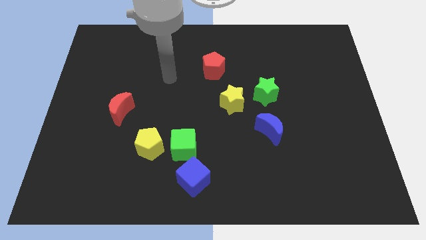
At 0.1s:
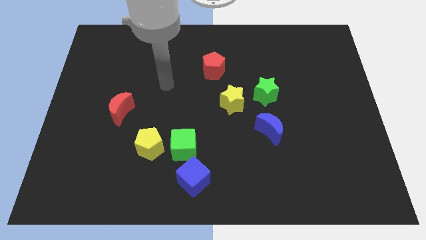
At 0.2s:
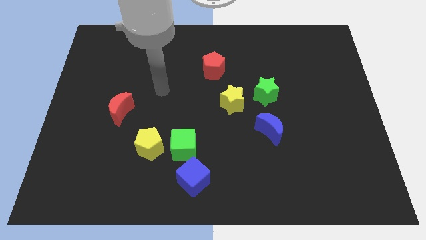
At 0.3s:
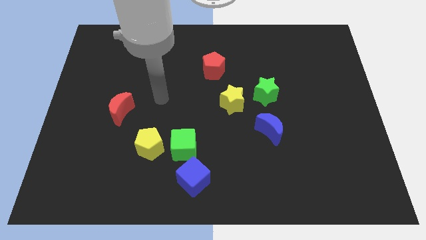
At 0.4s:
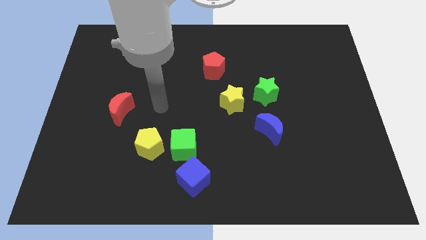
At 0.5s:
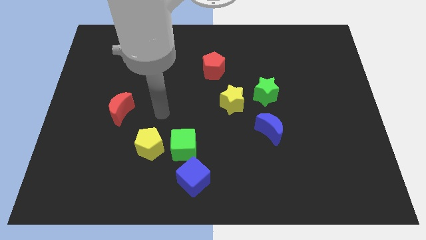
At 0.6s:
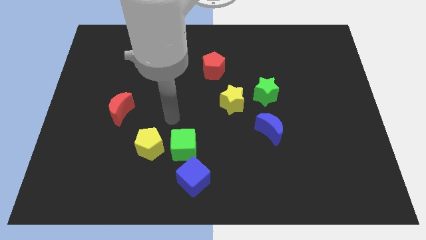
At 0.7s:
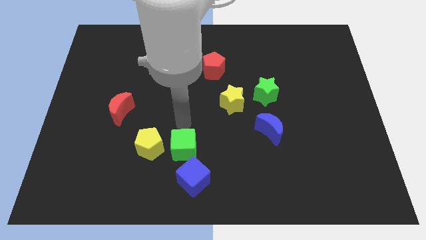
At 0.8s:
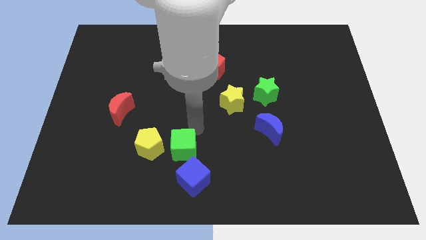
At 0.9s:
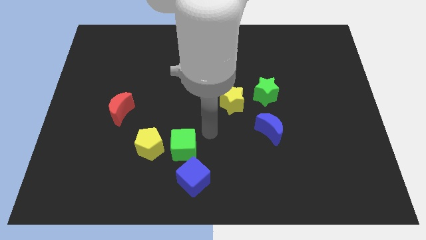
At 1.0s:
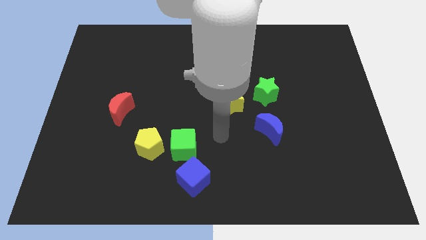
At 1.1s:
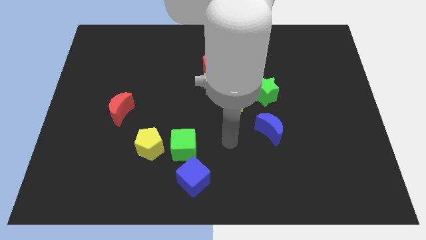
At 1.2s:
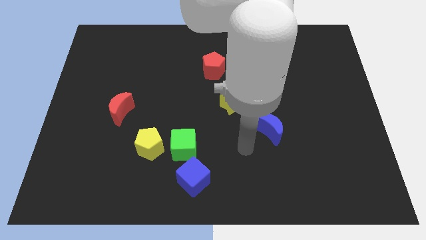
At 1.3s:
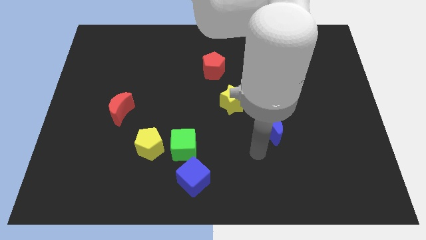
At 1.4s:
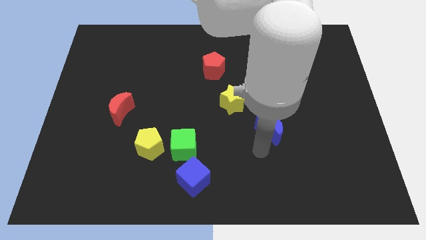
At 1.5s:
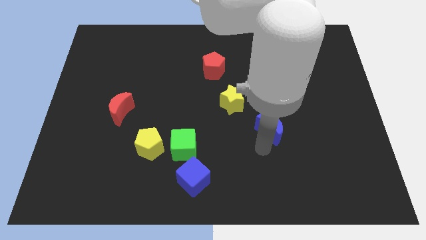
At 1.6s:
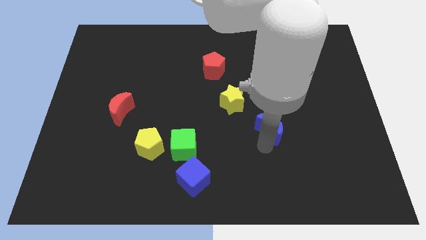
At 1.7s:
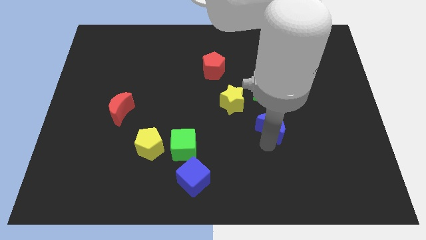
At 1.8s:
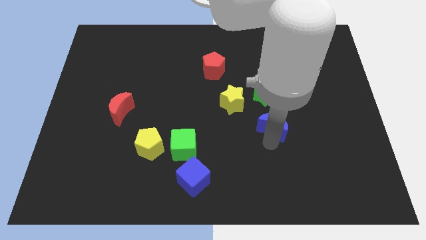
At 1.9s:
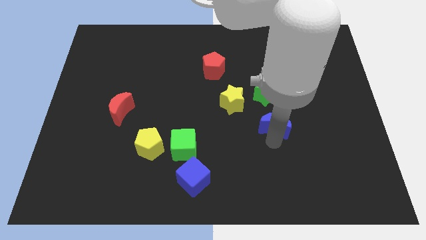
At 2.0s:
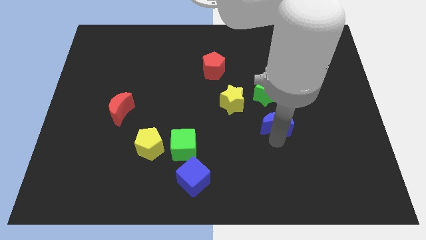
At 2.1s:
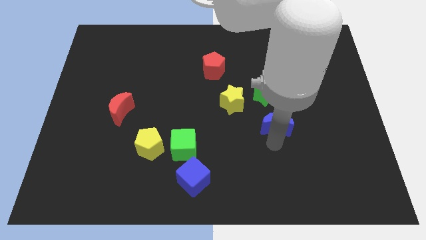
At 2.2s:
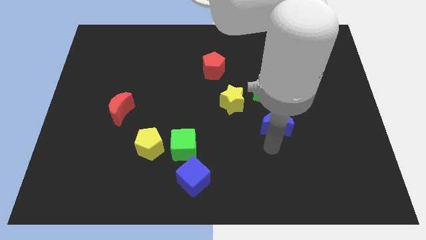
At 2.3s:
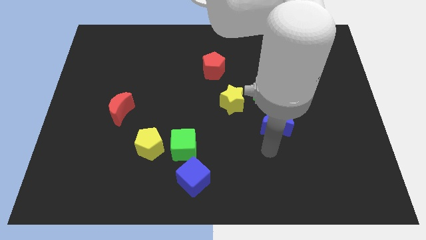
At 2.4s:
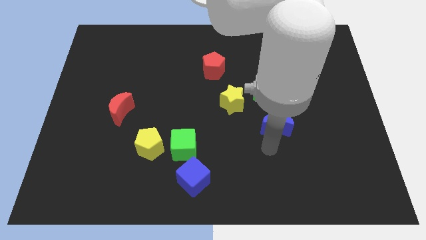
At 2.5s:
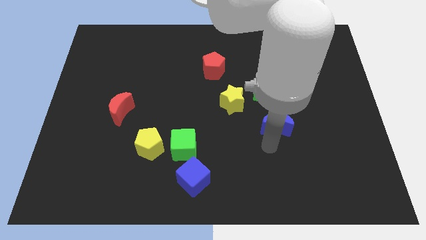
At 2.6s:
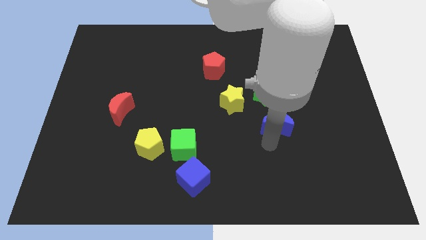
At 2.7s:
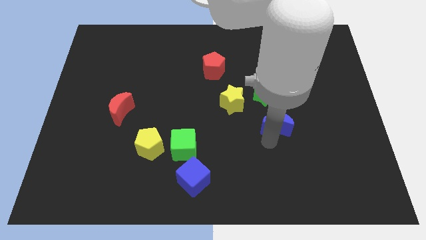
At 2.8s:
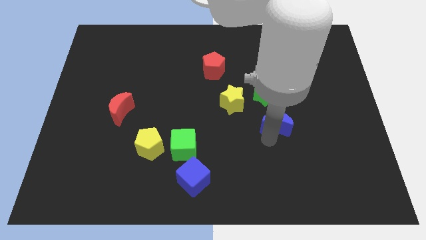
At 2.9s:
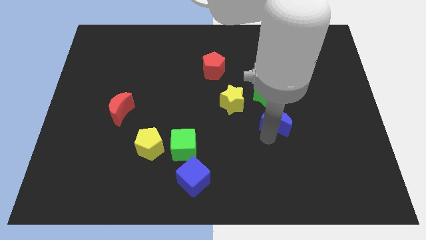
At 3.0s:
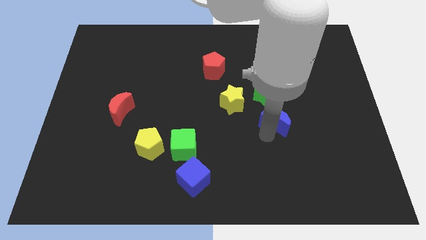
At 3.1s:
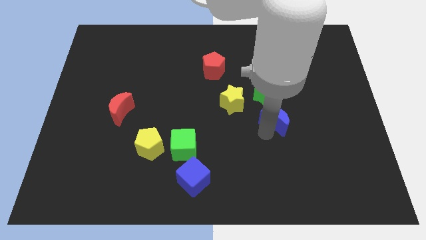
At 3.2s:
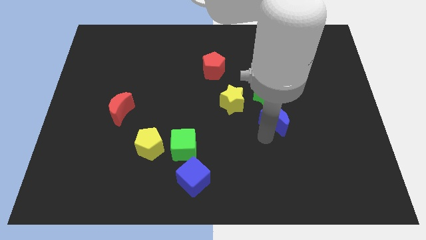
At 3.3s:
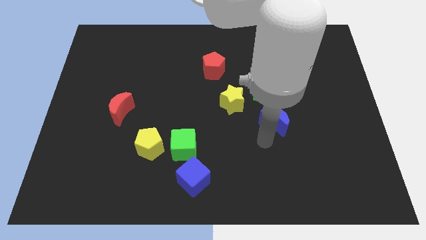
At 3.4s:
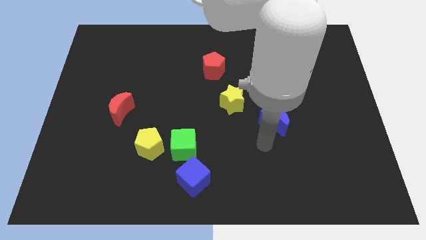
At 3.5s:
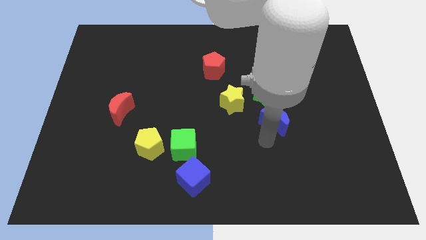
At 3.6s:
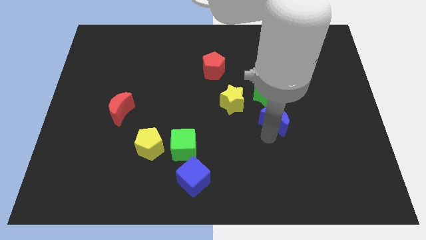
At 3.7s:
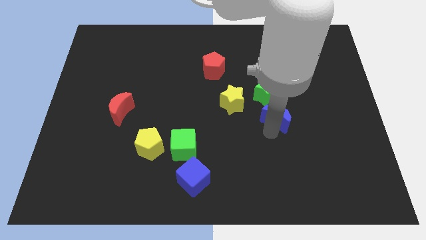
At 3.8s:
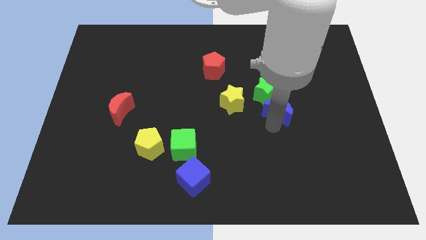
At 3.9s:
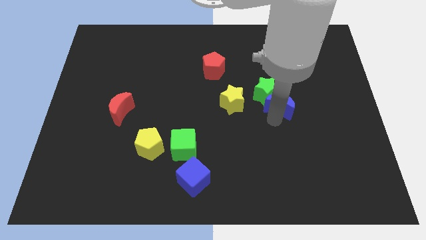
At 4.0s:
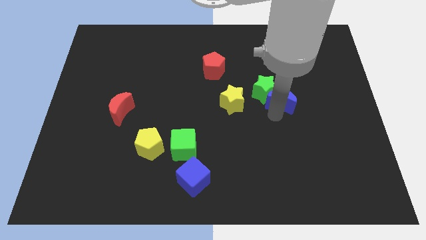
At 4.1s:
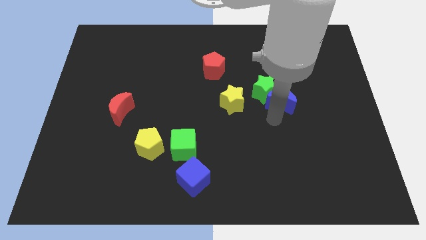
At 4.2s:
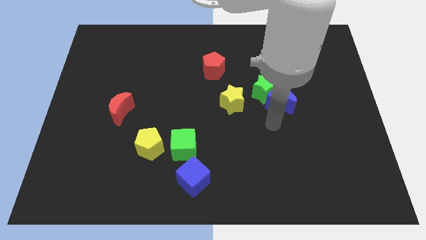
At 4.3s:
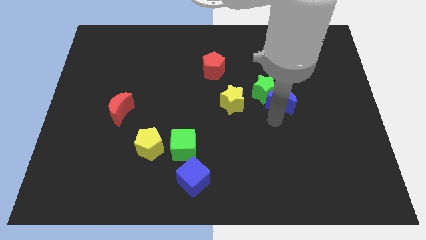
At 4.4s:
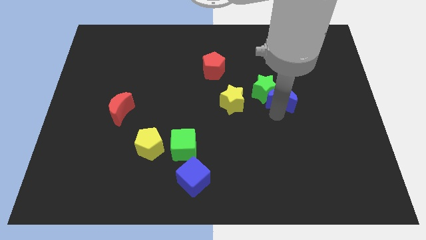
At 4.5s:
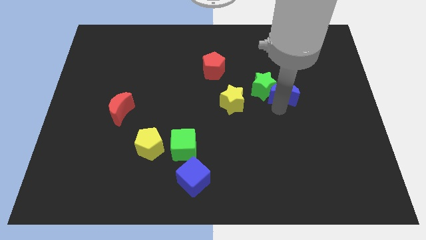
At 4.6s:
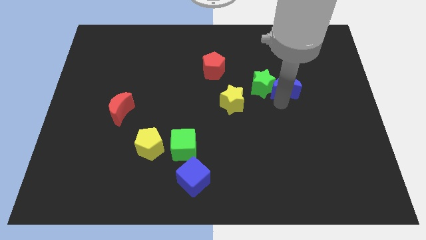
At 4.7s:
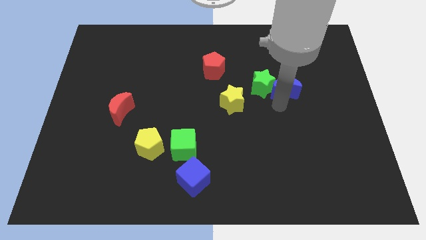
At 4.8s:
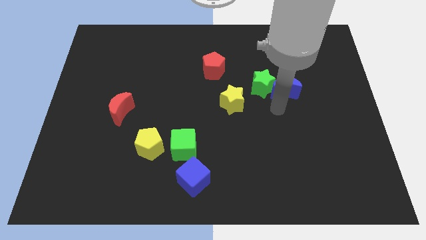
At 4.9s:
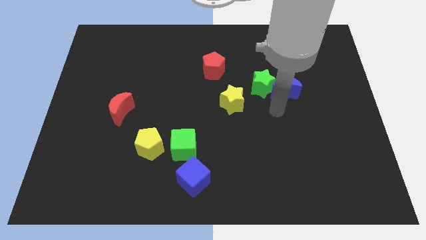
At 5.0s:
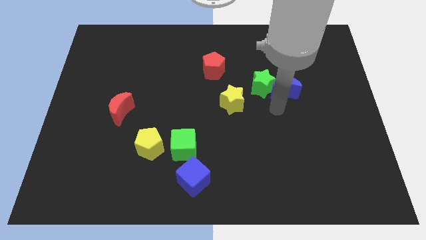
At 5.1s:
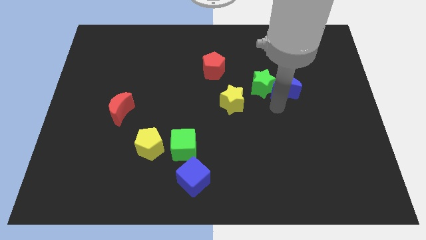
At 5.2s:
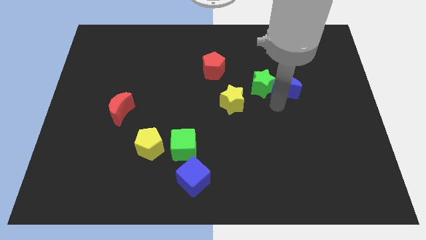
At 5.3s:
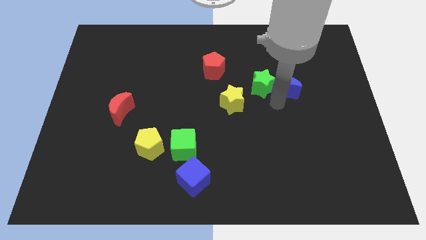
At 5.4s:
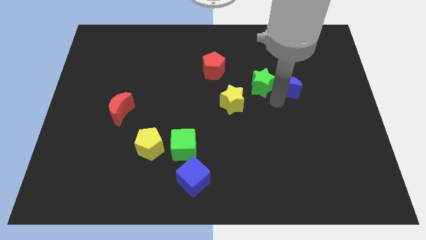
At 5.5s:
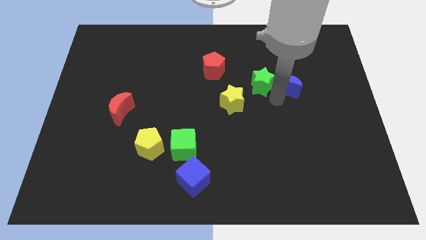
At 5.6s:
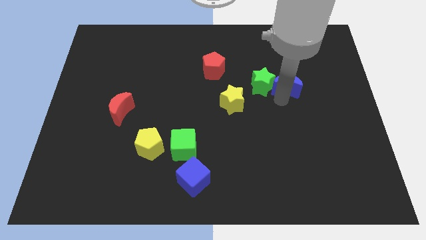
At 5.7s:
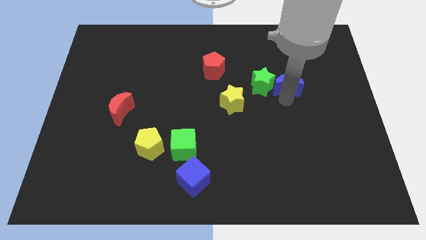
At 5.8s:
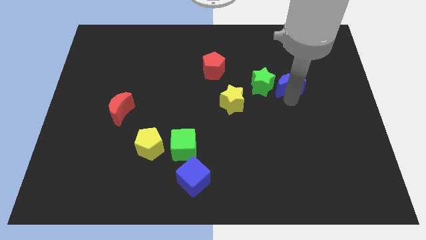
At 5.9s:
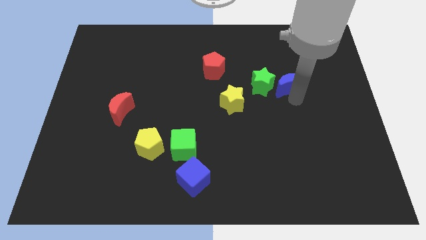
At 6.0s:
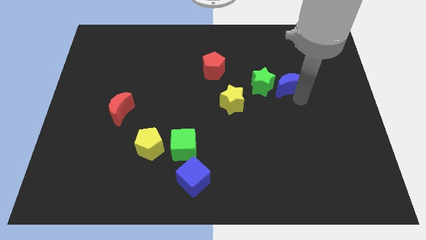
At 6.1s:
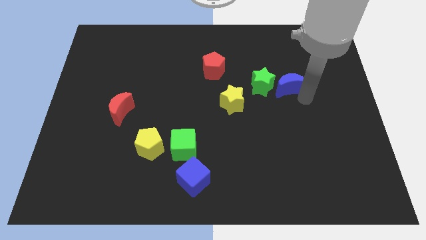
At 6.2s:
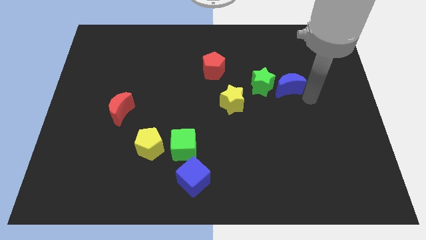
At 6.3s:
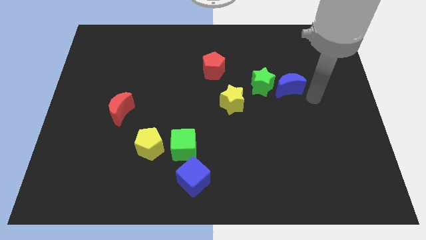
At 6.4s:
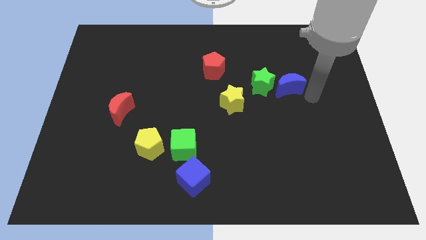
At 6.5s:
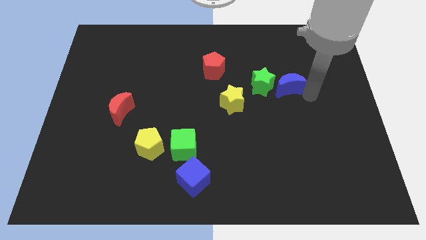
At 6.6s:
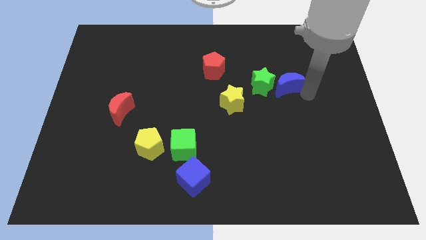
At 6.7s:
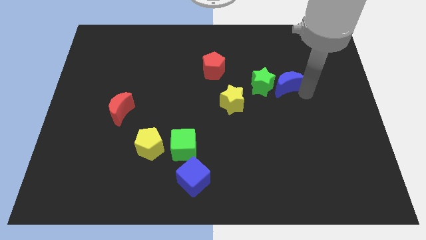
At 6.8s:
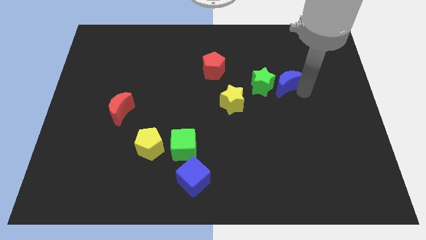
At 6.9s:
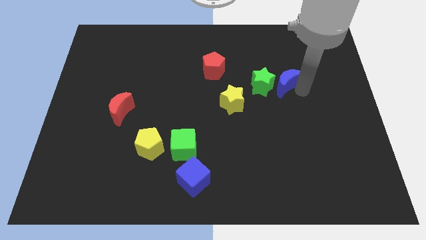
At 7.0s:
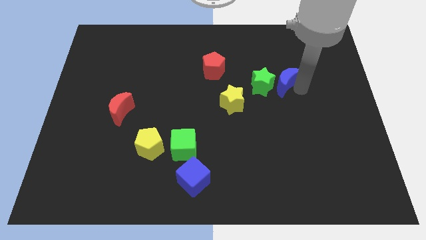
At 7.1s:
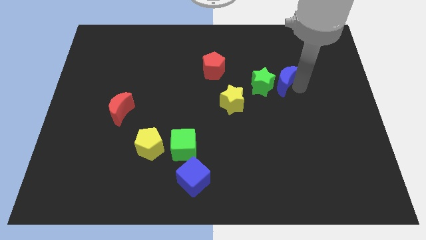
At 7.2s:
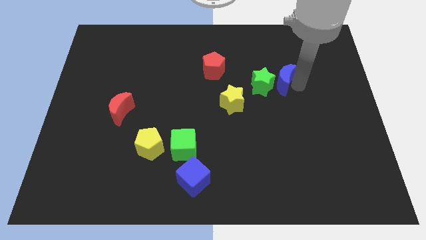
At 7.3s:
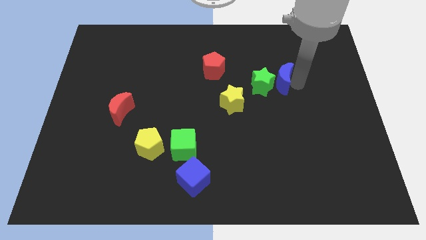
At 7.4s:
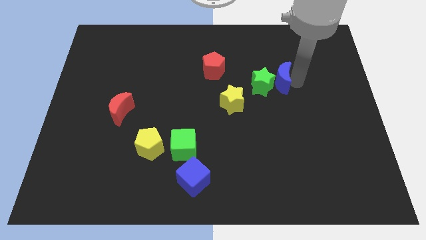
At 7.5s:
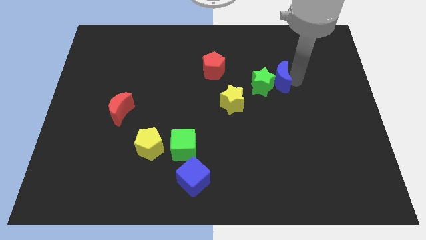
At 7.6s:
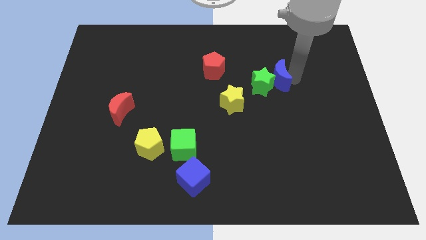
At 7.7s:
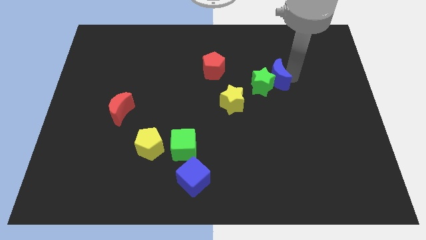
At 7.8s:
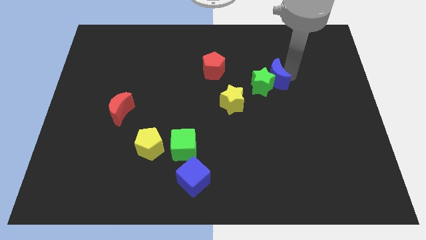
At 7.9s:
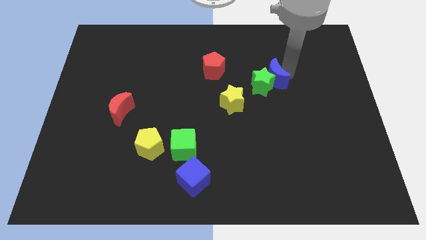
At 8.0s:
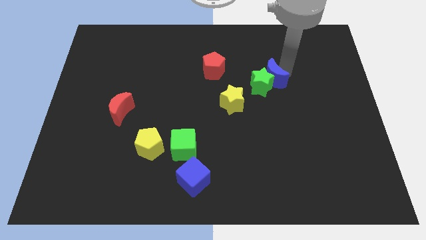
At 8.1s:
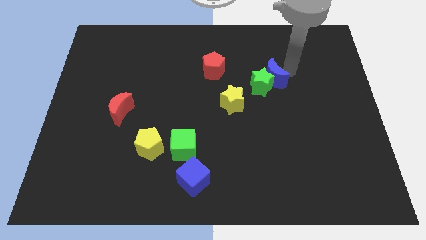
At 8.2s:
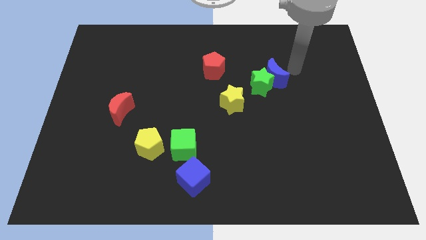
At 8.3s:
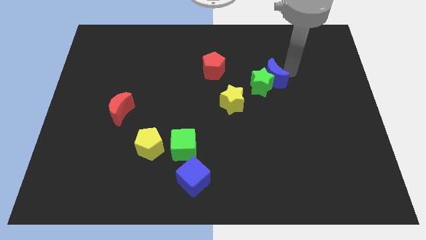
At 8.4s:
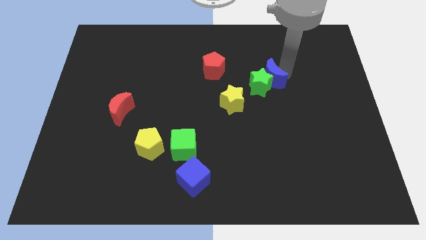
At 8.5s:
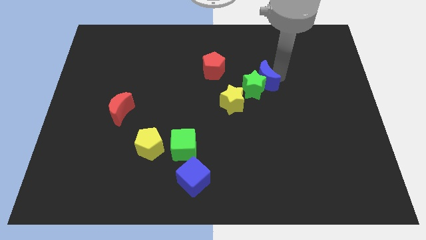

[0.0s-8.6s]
push the blue moon to the top right side of the yellow star
